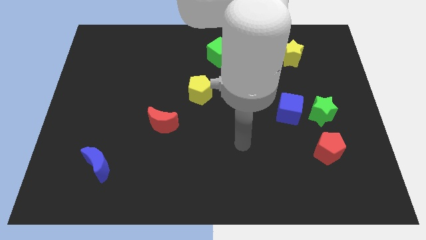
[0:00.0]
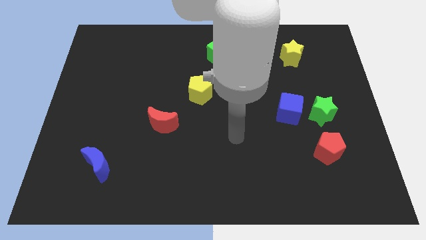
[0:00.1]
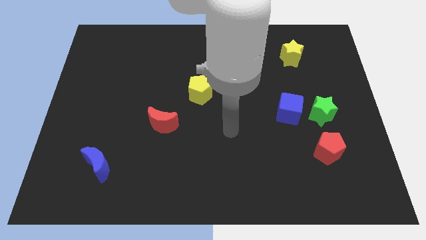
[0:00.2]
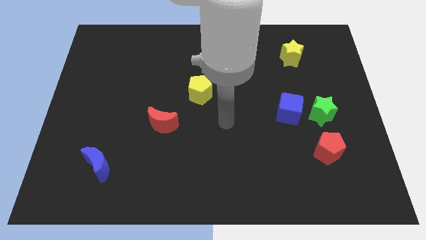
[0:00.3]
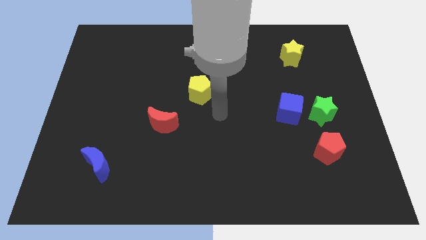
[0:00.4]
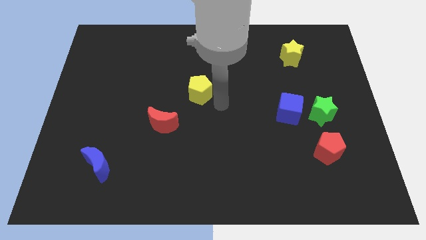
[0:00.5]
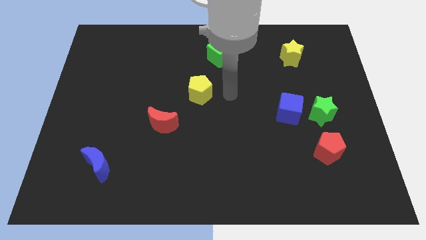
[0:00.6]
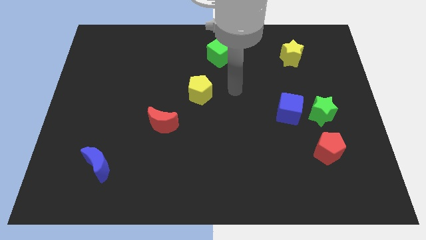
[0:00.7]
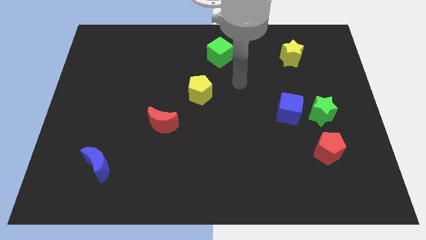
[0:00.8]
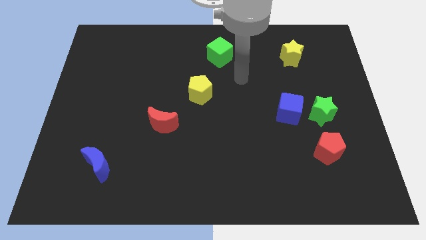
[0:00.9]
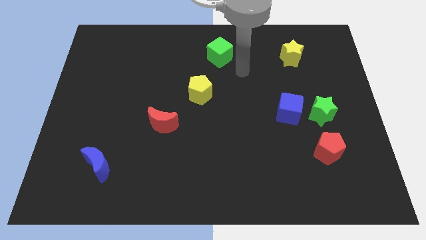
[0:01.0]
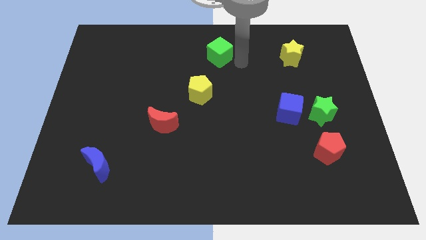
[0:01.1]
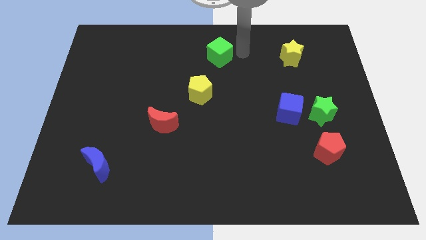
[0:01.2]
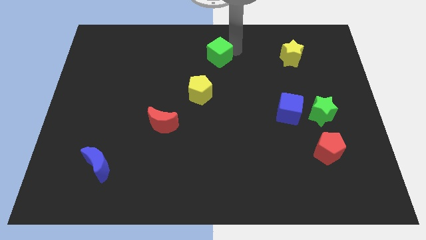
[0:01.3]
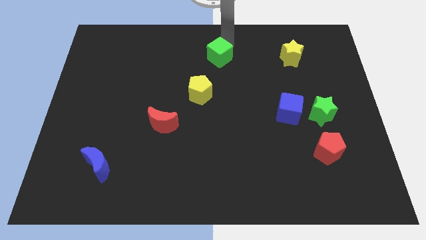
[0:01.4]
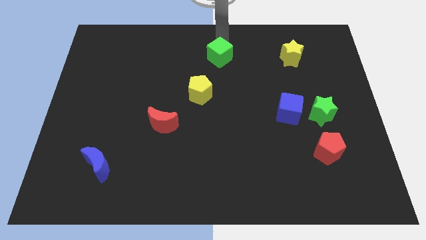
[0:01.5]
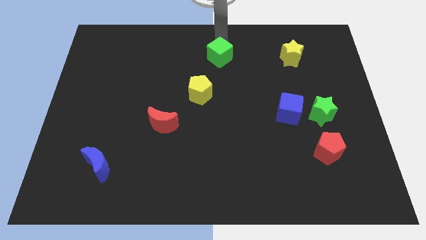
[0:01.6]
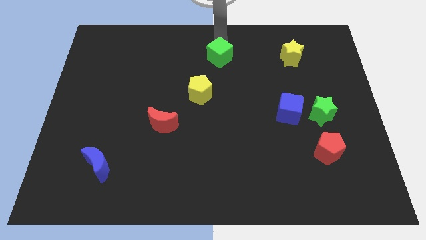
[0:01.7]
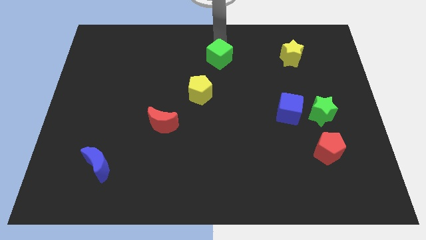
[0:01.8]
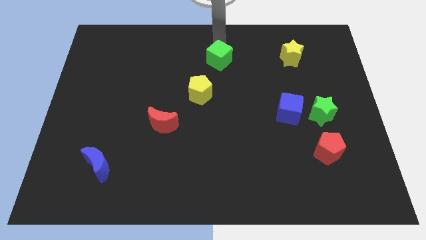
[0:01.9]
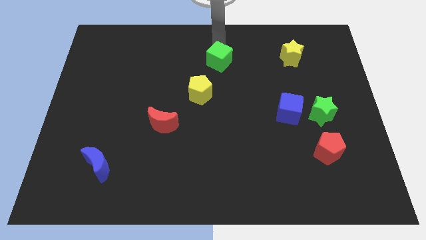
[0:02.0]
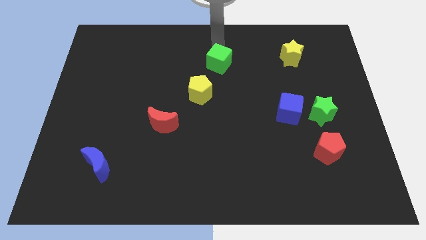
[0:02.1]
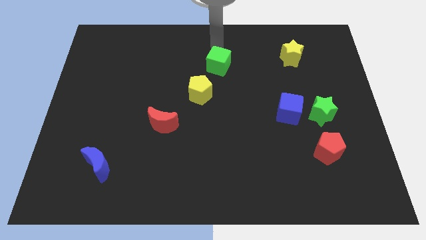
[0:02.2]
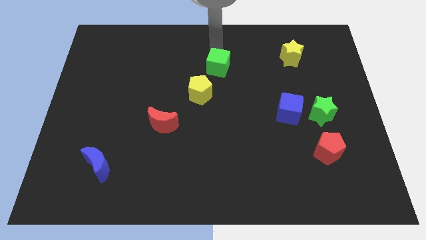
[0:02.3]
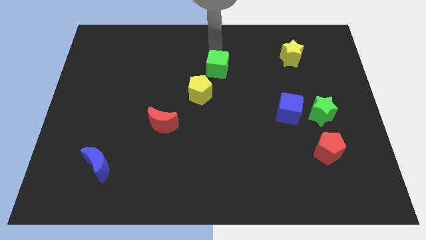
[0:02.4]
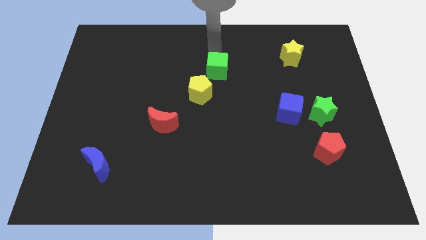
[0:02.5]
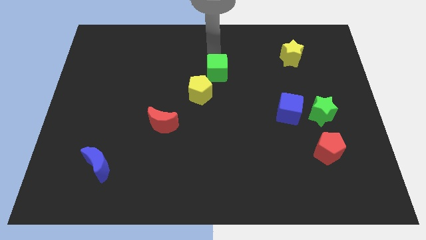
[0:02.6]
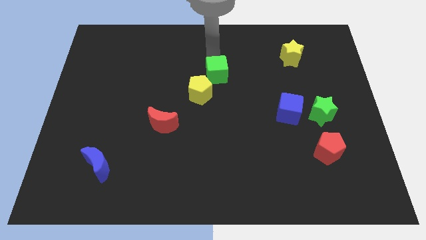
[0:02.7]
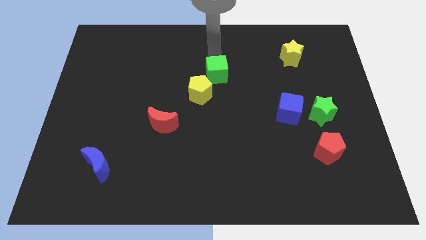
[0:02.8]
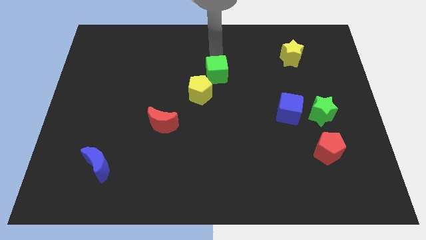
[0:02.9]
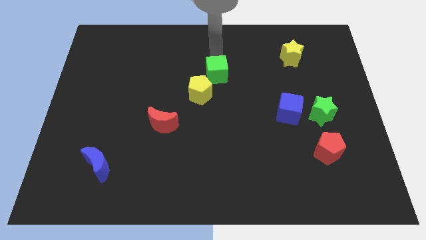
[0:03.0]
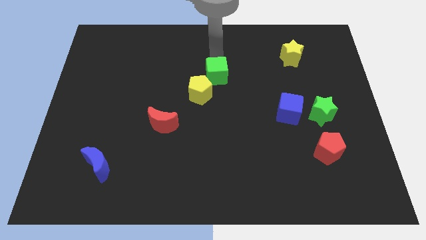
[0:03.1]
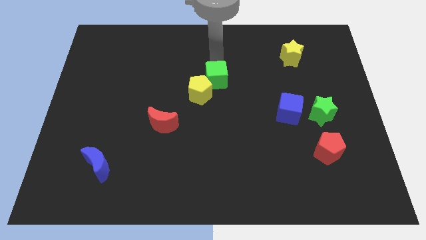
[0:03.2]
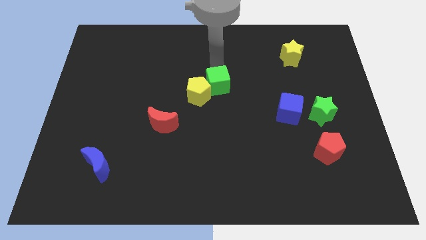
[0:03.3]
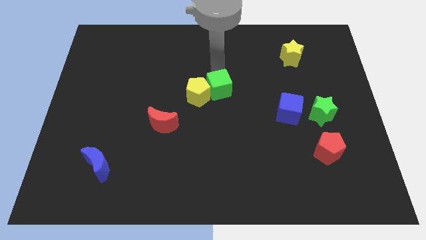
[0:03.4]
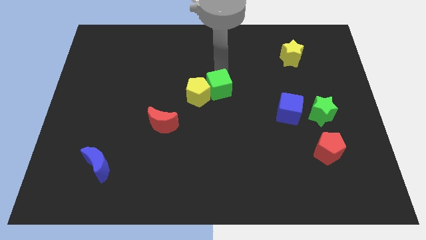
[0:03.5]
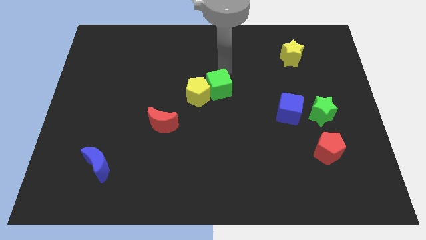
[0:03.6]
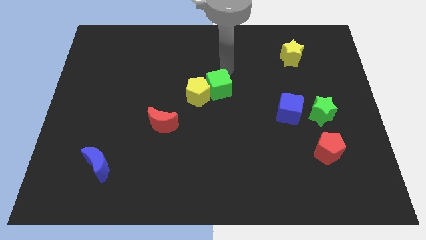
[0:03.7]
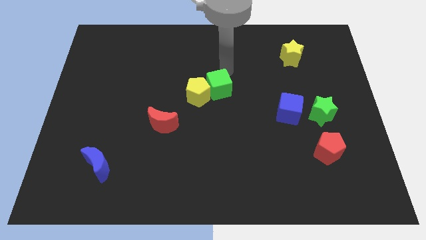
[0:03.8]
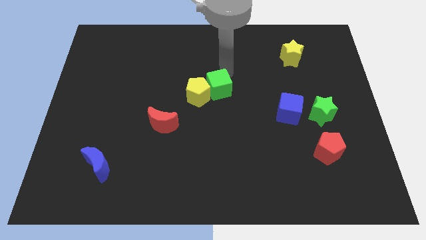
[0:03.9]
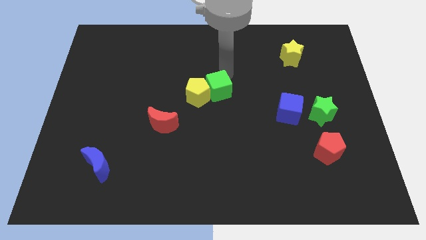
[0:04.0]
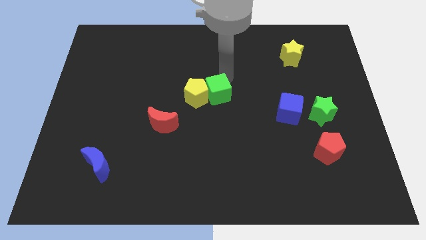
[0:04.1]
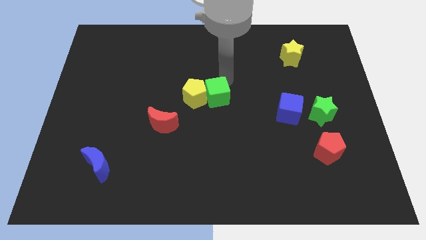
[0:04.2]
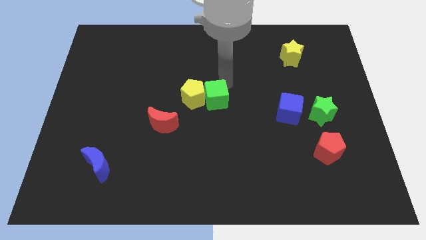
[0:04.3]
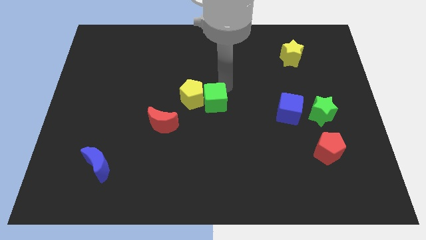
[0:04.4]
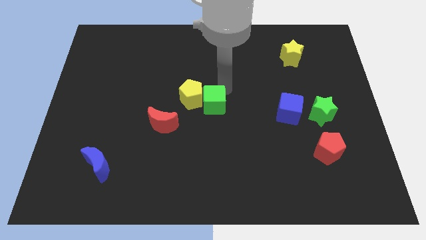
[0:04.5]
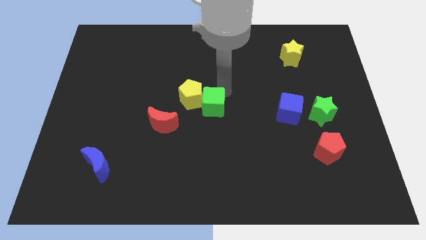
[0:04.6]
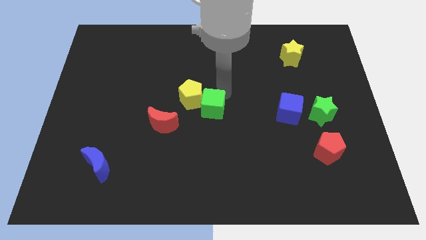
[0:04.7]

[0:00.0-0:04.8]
slide the green cube to the right side of the red moon

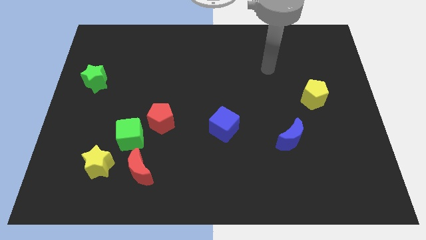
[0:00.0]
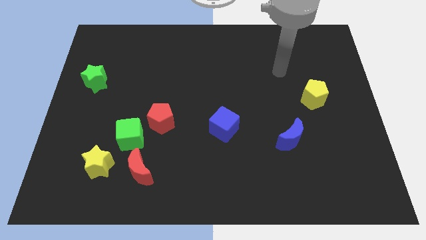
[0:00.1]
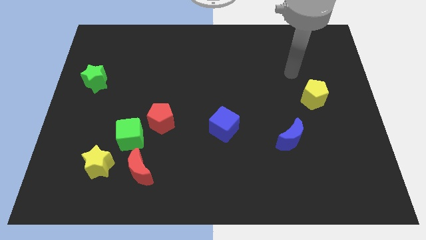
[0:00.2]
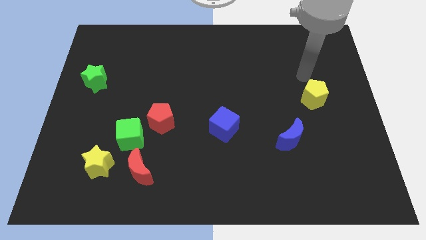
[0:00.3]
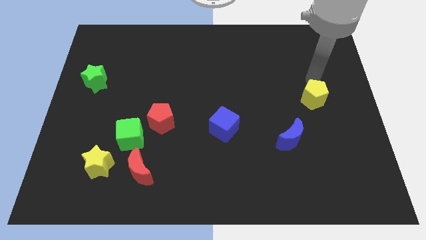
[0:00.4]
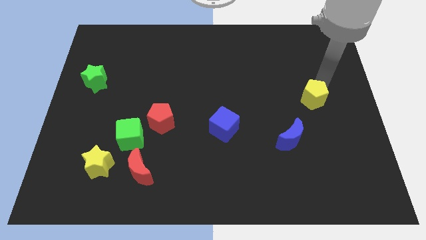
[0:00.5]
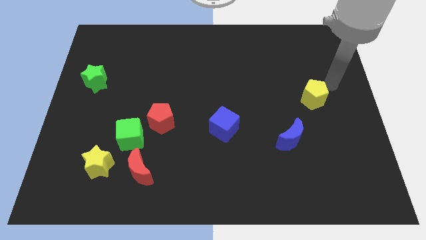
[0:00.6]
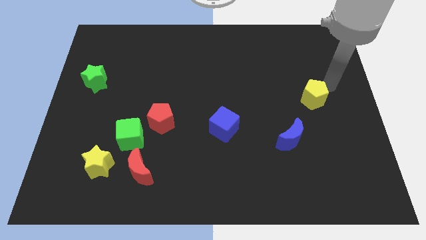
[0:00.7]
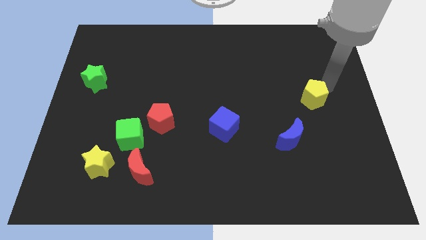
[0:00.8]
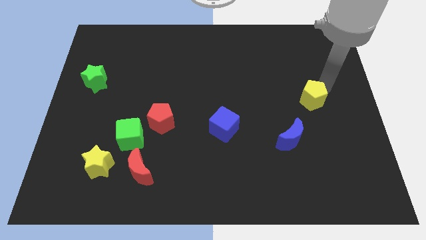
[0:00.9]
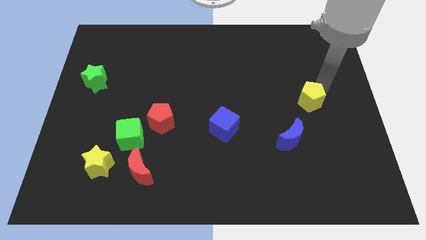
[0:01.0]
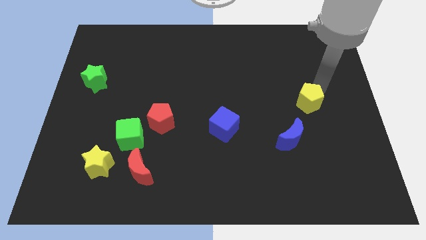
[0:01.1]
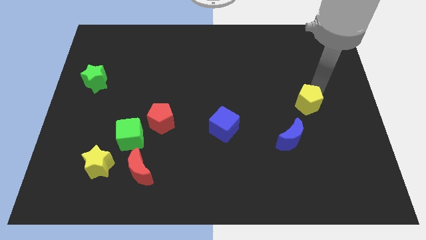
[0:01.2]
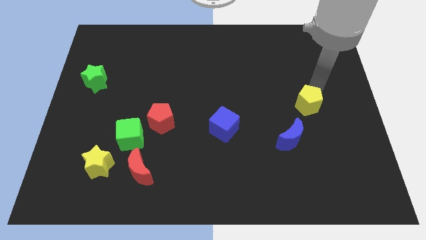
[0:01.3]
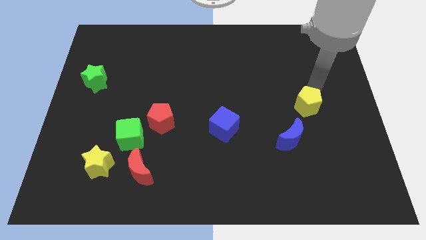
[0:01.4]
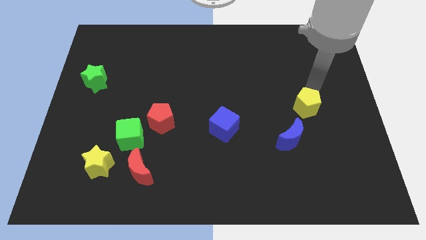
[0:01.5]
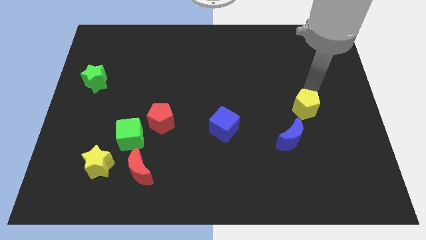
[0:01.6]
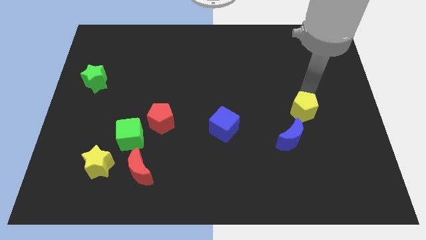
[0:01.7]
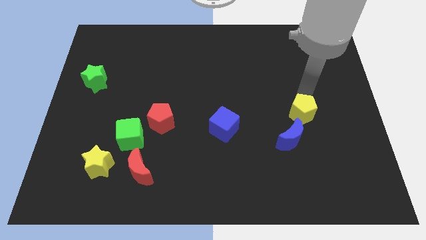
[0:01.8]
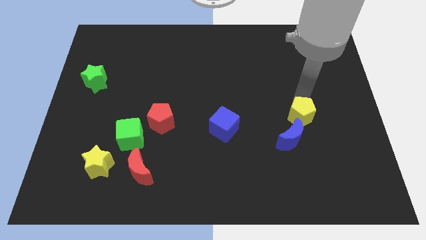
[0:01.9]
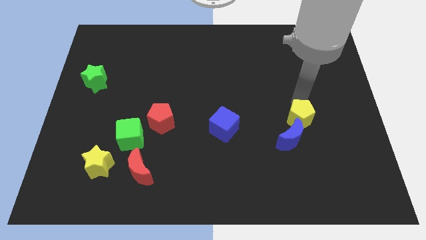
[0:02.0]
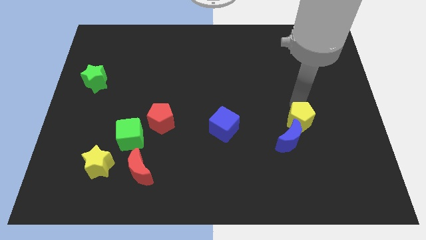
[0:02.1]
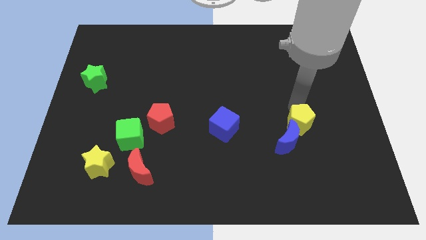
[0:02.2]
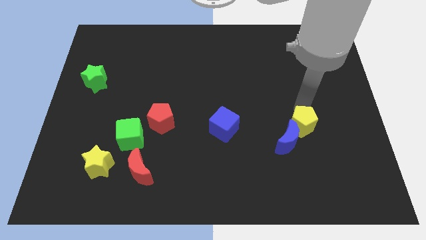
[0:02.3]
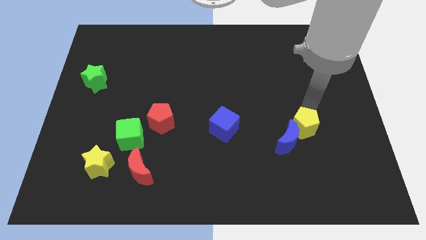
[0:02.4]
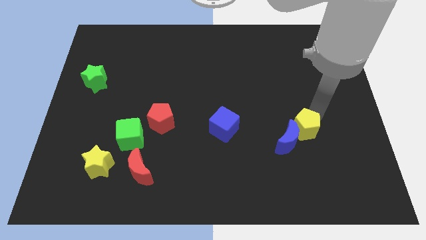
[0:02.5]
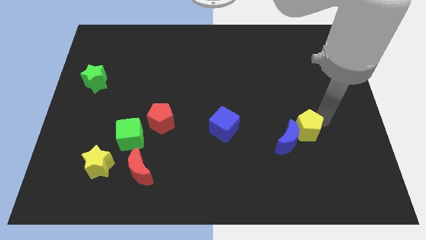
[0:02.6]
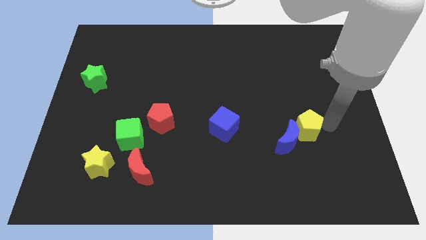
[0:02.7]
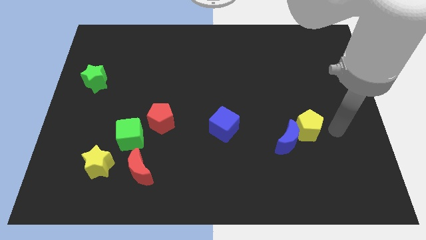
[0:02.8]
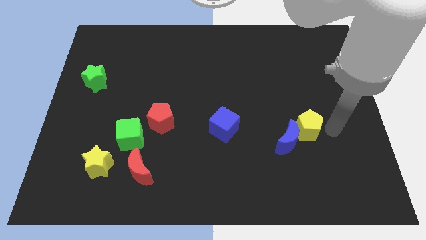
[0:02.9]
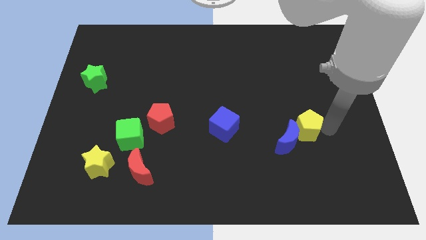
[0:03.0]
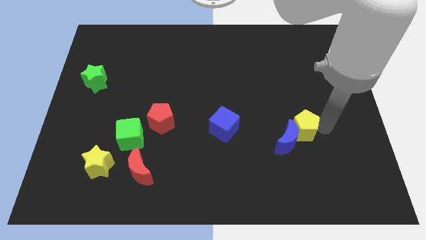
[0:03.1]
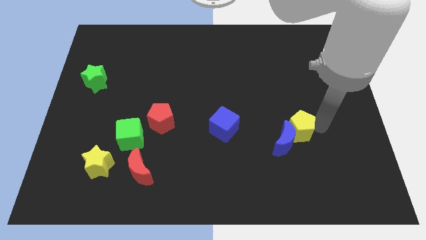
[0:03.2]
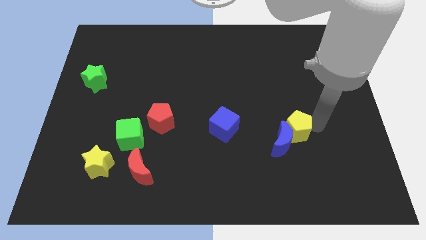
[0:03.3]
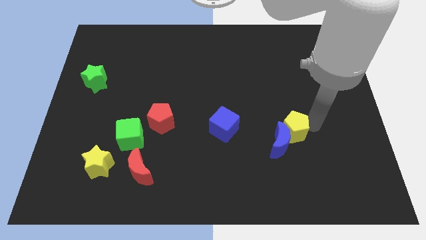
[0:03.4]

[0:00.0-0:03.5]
move the yellow pentagon to the right of the blue cube
